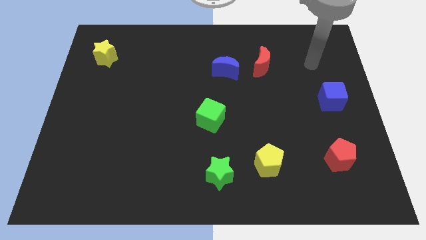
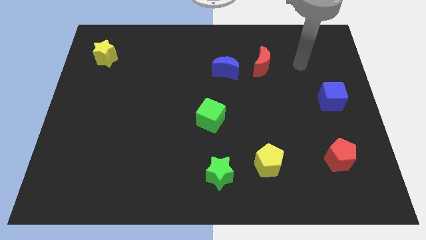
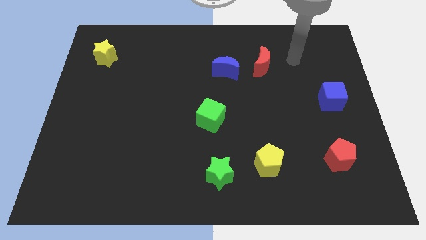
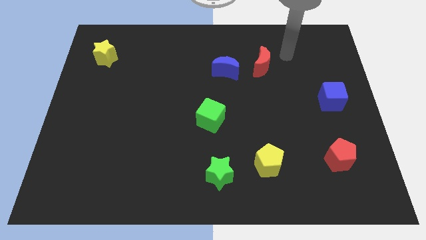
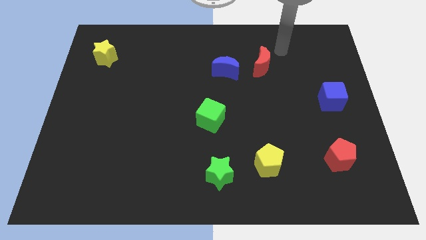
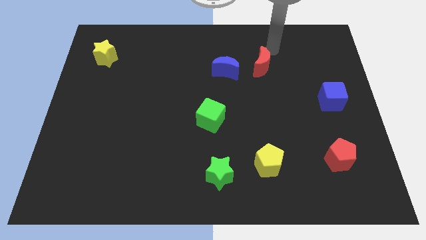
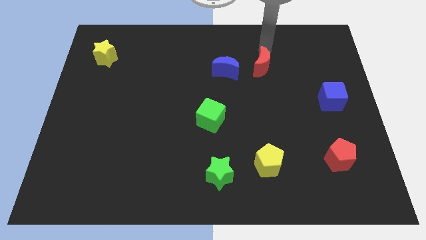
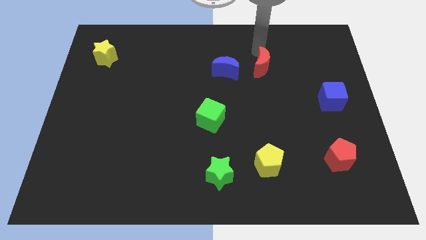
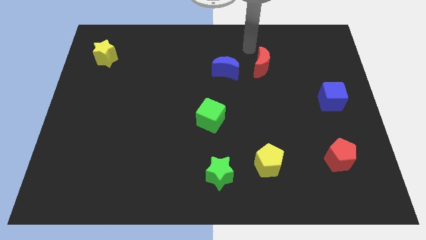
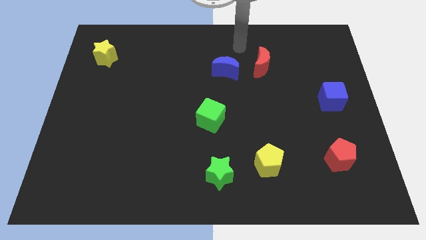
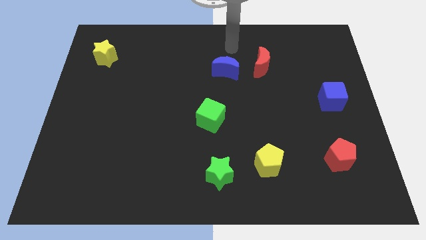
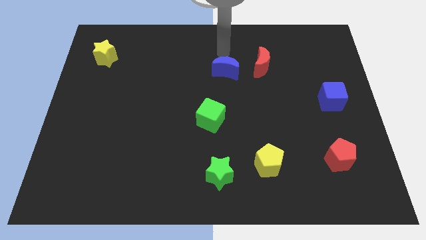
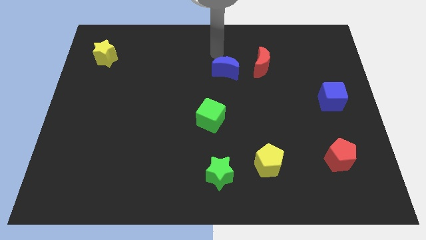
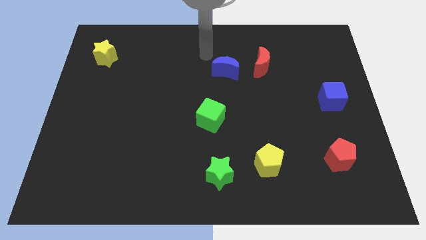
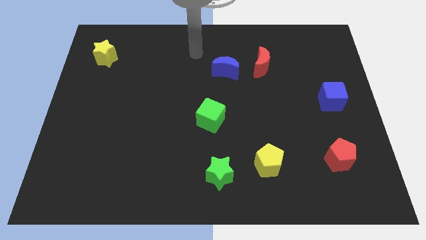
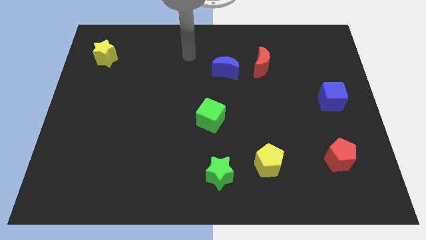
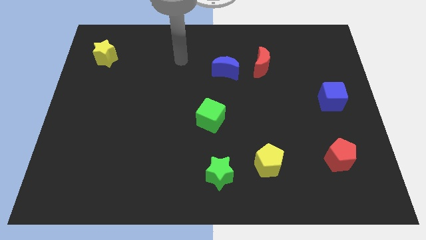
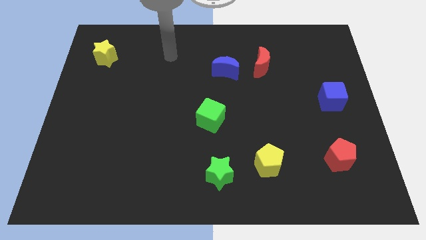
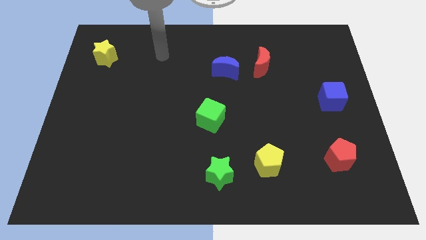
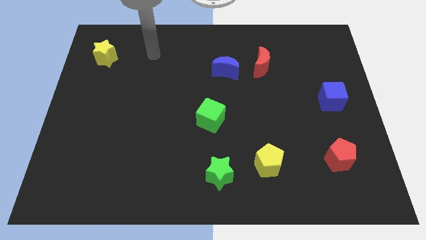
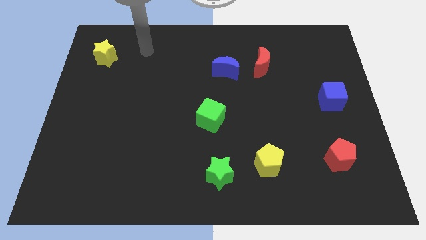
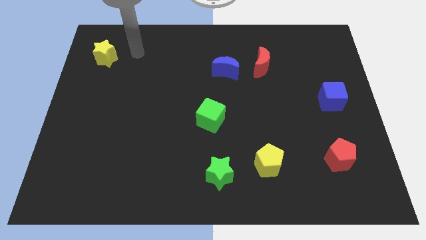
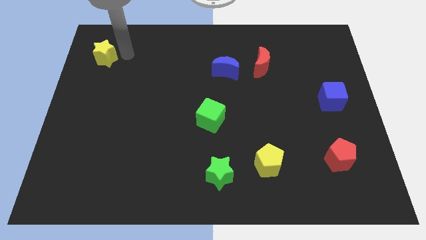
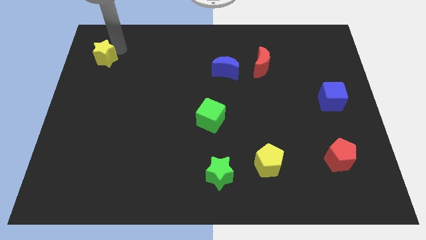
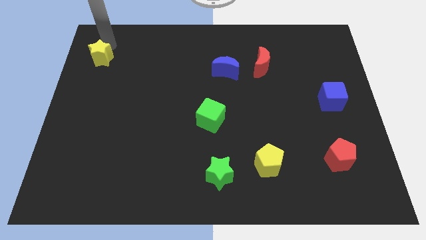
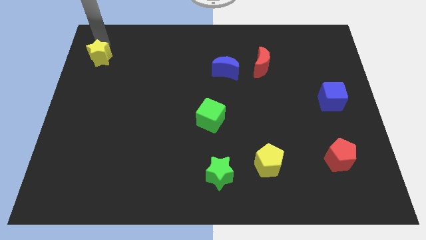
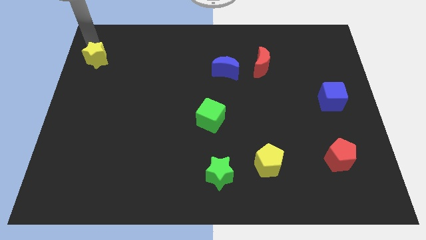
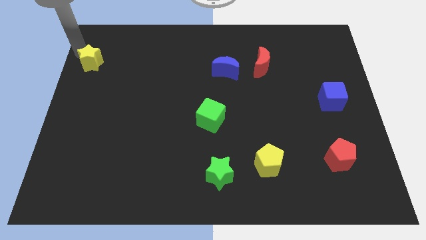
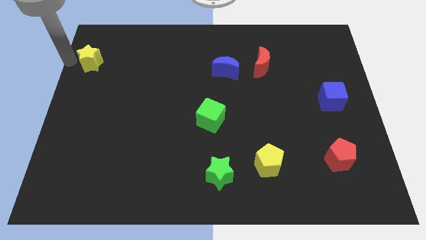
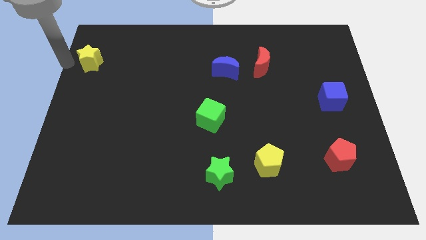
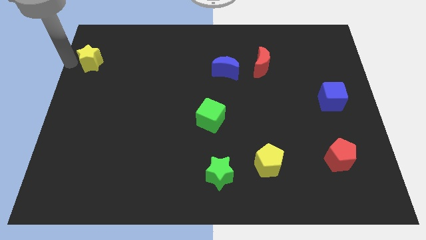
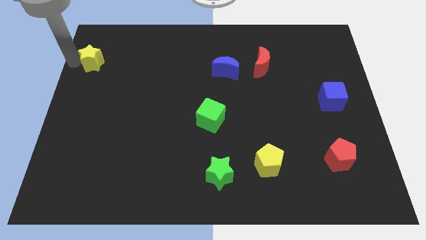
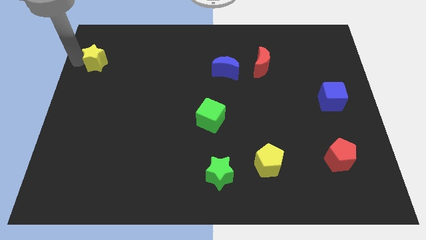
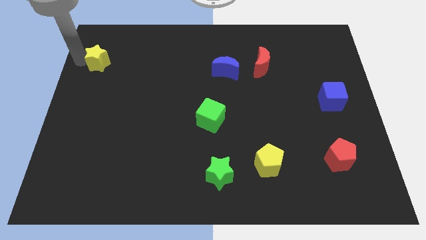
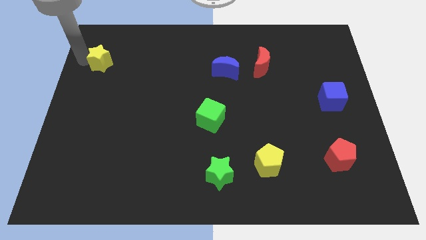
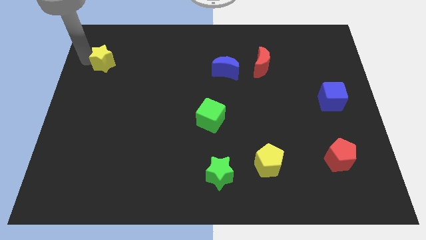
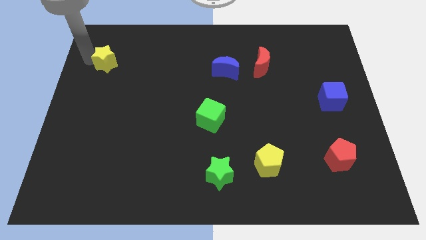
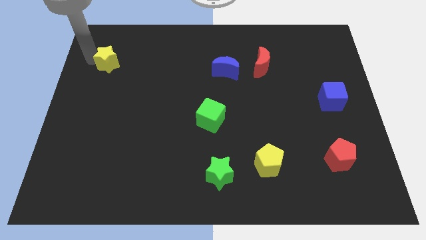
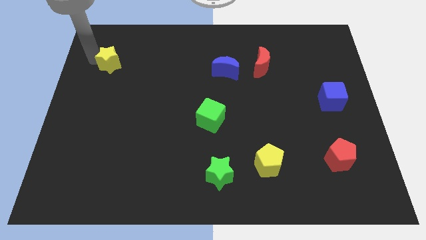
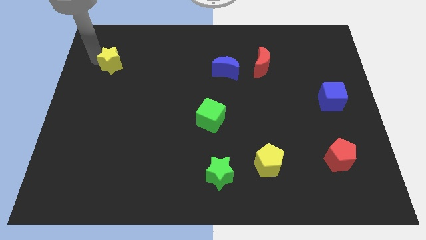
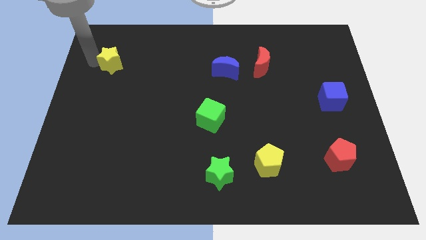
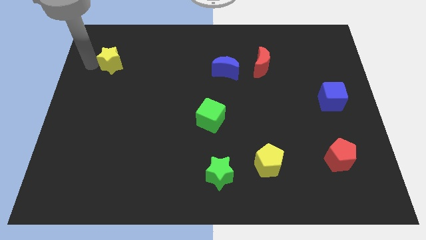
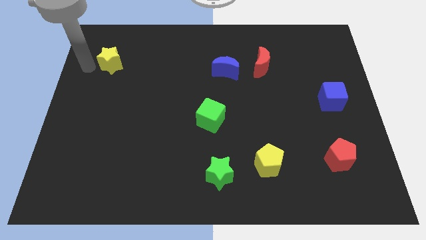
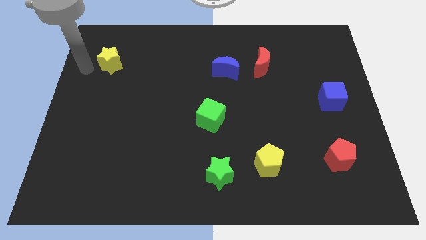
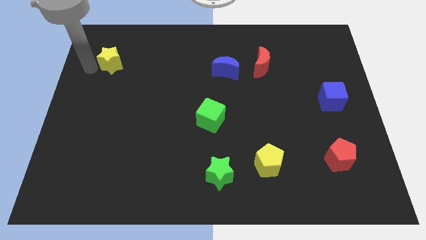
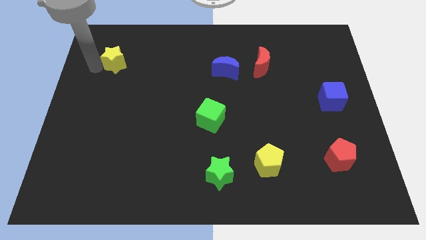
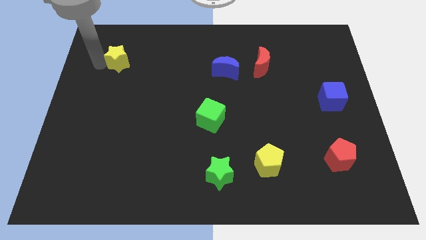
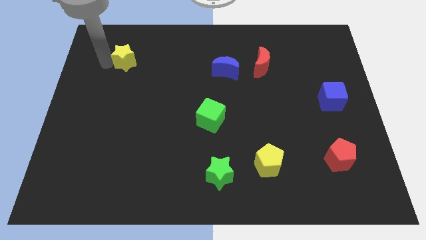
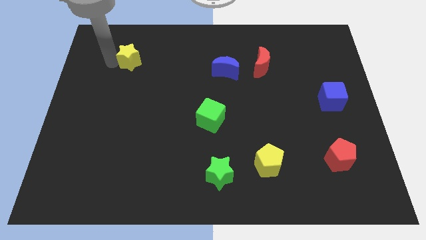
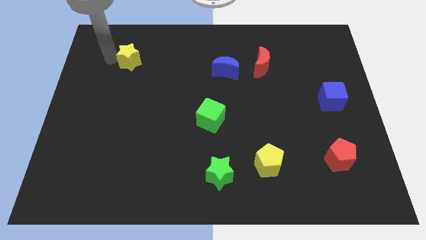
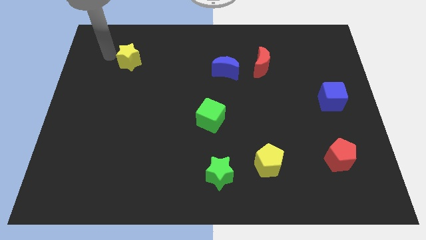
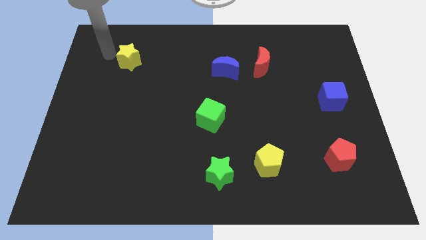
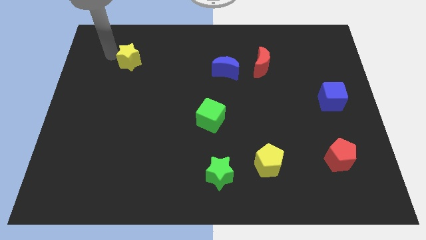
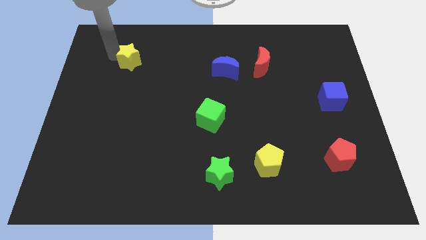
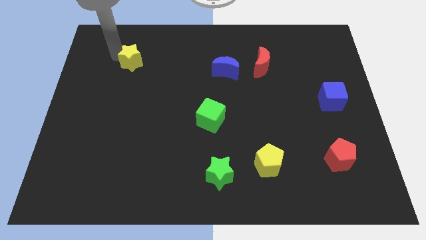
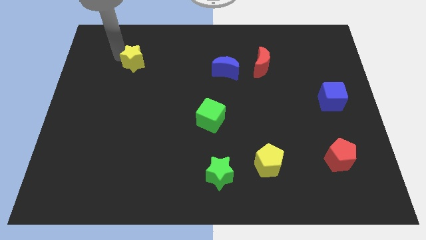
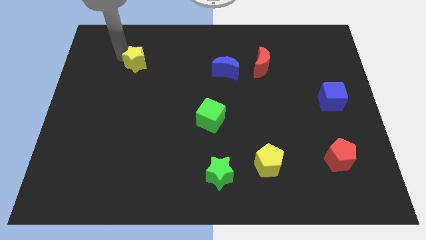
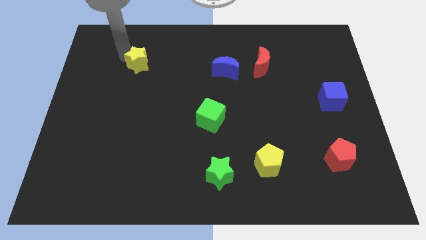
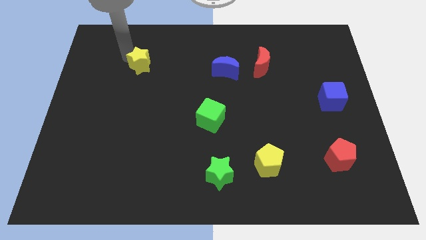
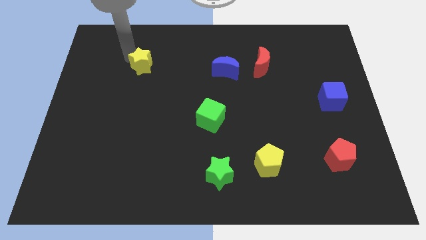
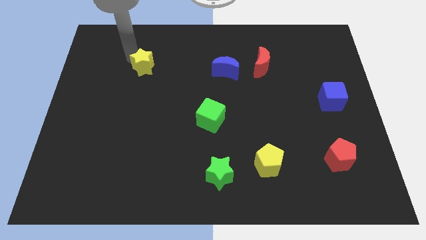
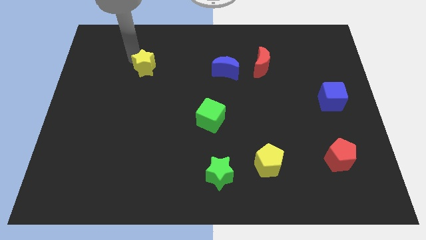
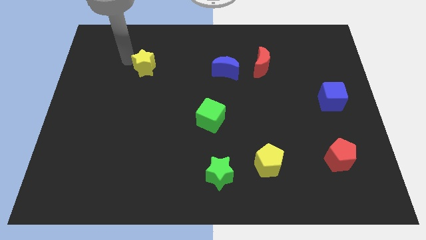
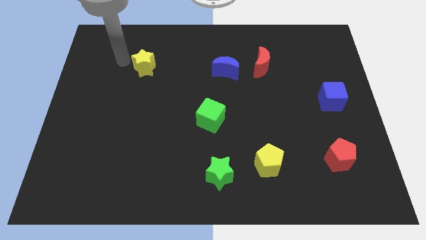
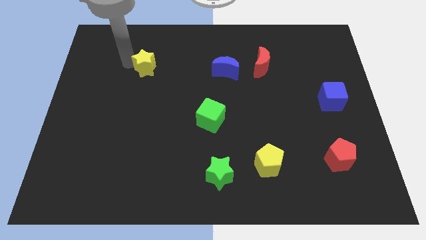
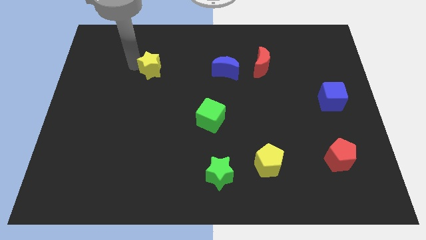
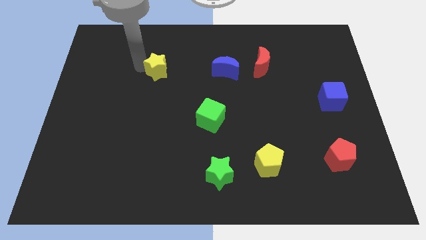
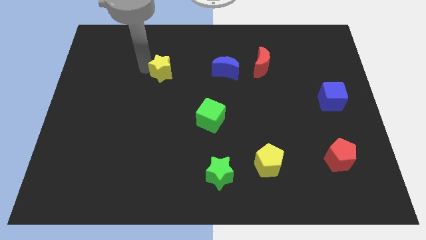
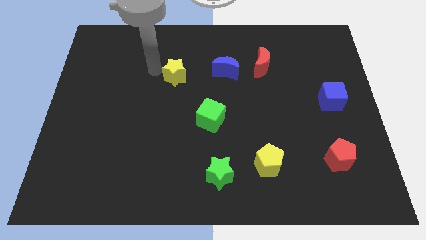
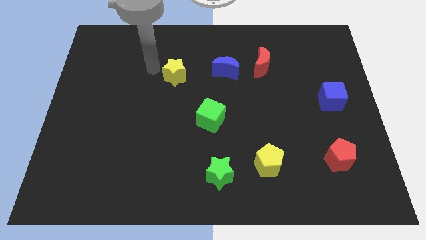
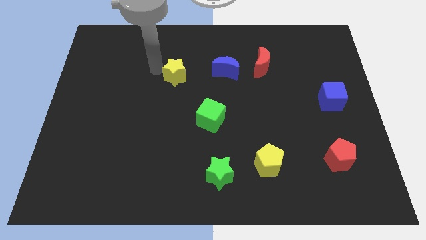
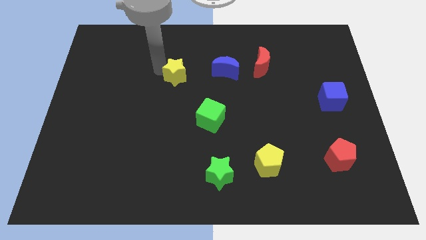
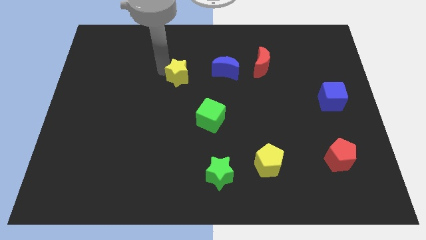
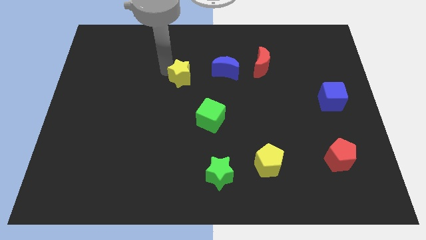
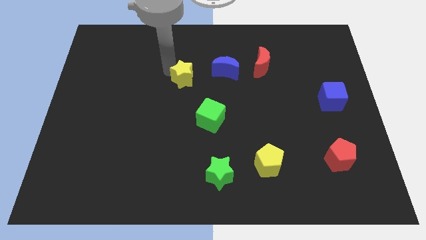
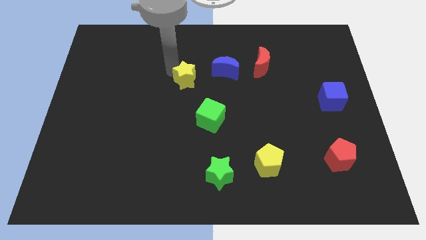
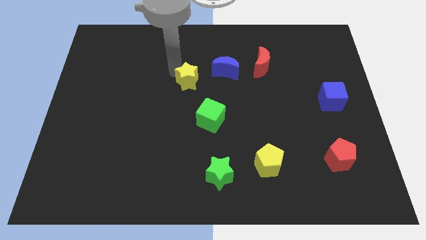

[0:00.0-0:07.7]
move the yellow star to the bottom left of the blue moon

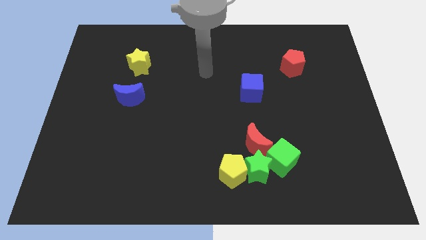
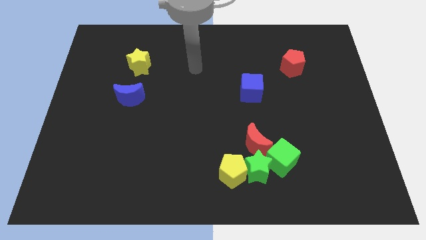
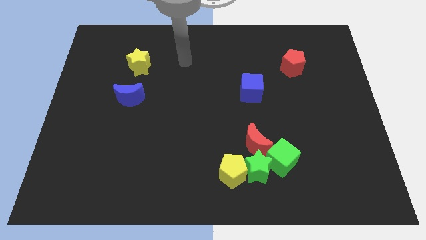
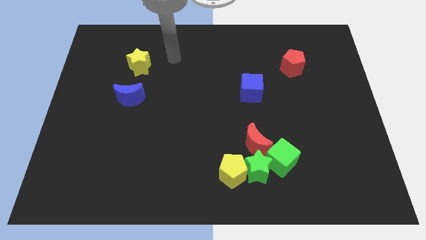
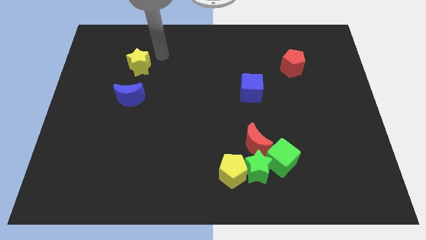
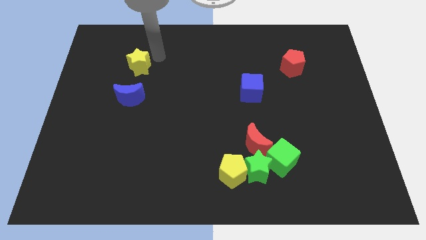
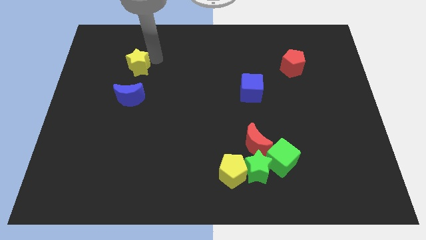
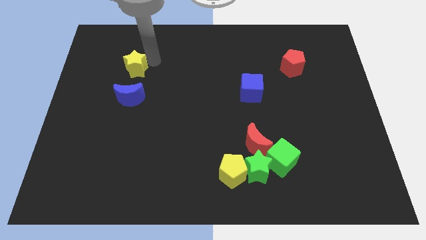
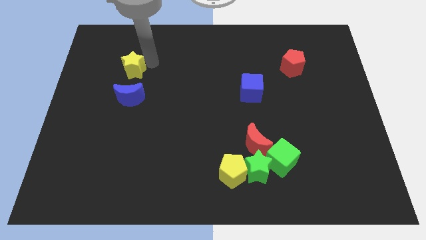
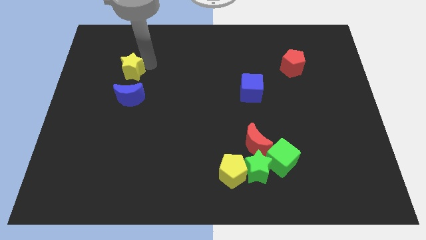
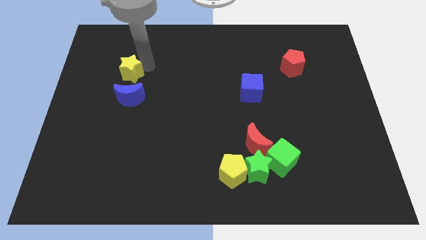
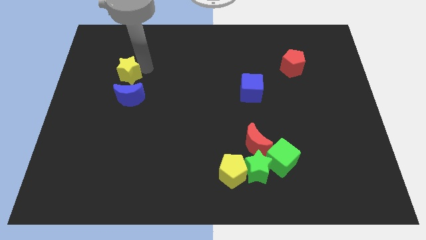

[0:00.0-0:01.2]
put the yellow star diagonally up and to the left of the blue moon
